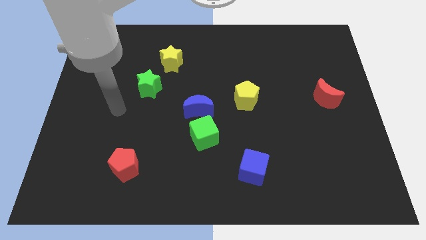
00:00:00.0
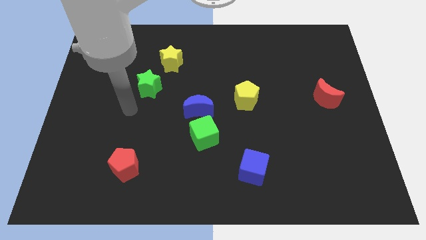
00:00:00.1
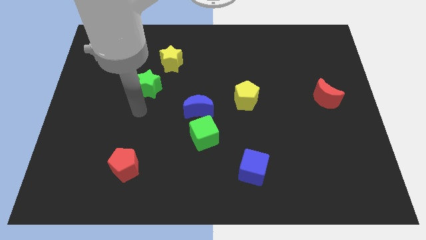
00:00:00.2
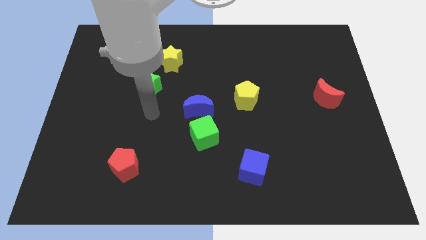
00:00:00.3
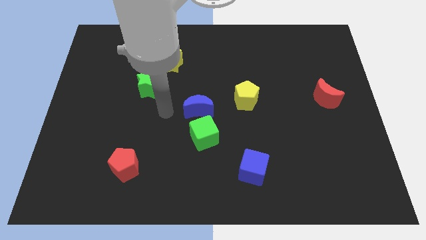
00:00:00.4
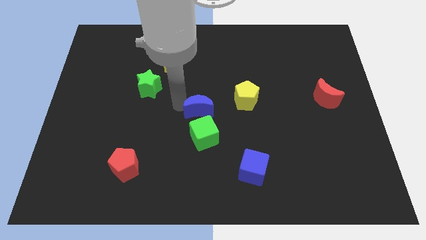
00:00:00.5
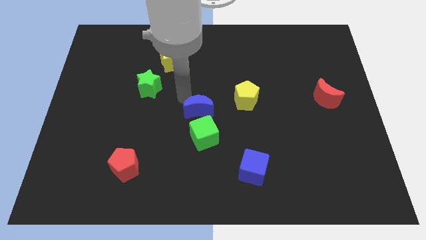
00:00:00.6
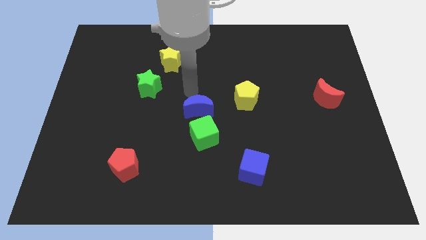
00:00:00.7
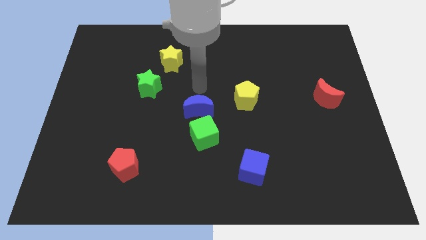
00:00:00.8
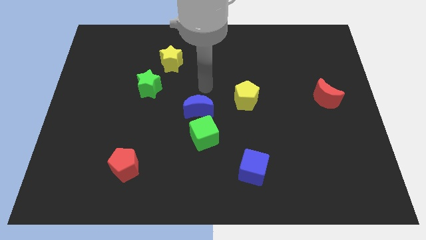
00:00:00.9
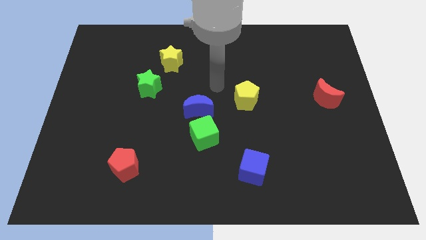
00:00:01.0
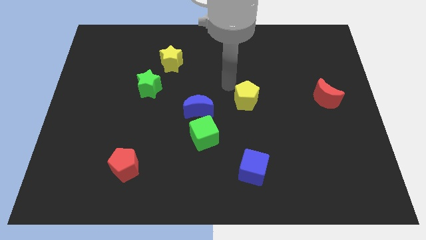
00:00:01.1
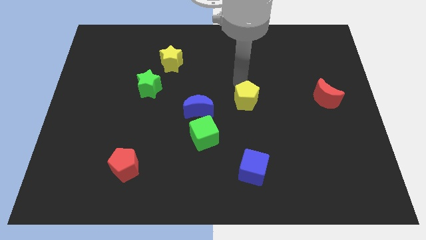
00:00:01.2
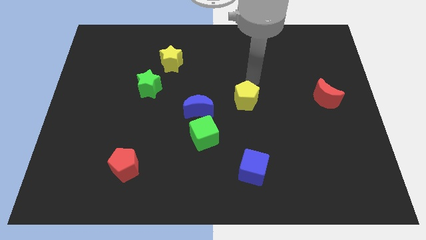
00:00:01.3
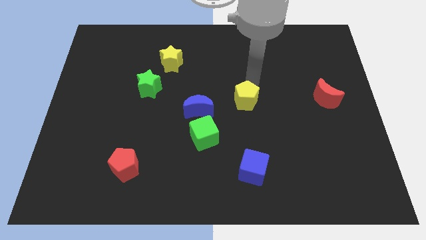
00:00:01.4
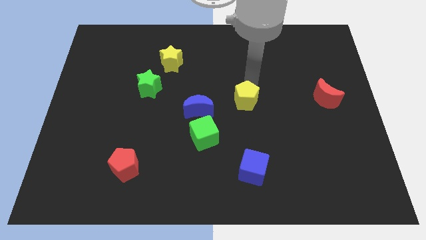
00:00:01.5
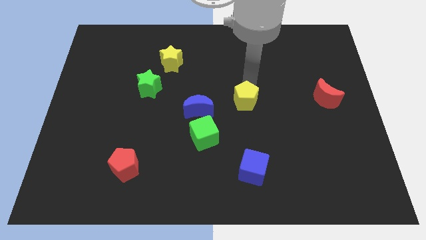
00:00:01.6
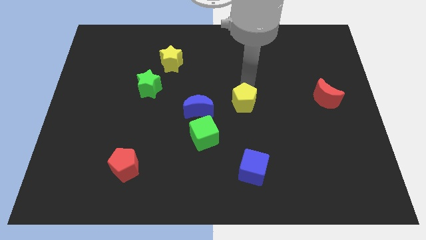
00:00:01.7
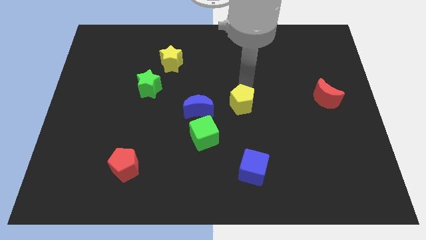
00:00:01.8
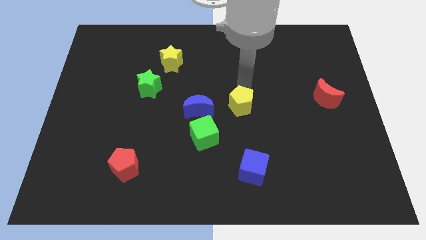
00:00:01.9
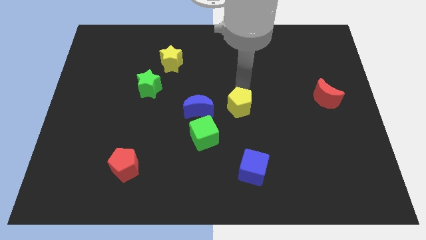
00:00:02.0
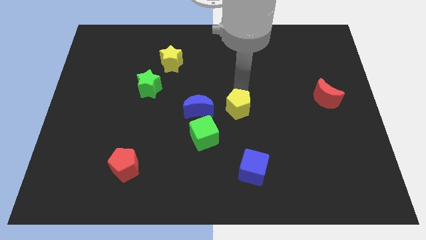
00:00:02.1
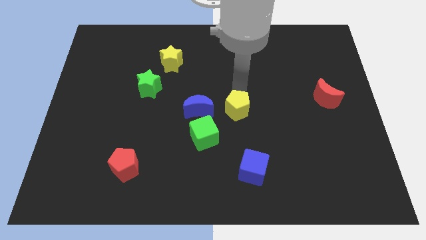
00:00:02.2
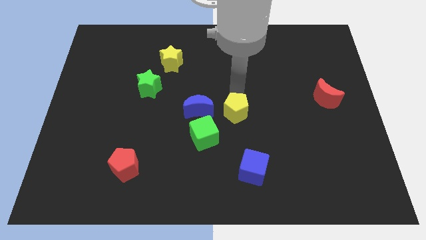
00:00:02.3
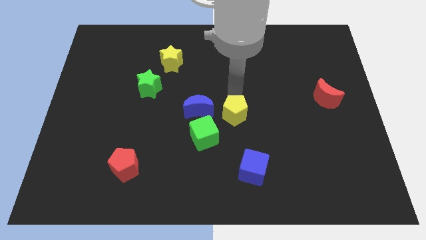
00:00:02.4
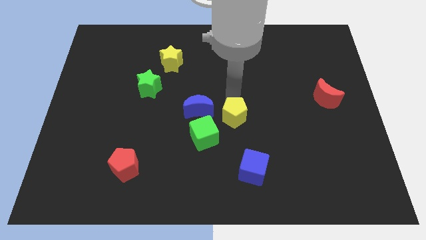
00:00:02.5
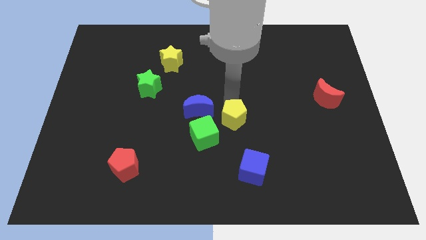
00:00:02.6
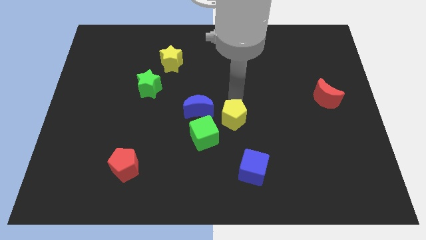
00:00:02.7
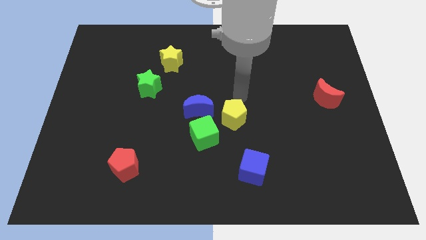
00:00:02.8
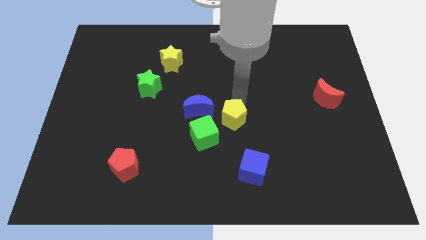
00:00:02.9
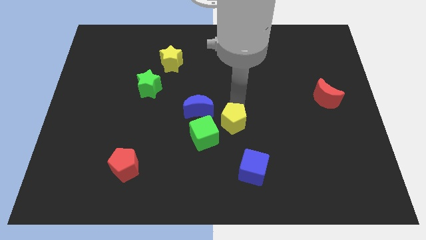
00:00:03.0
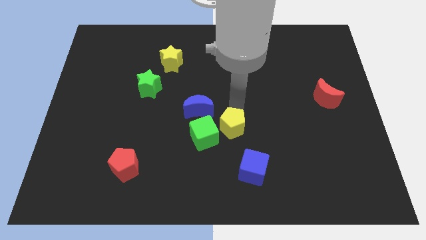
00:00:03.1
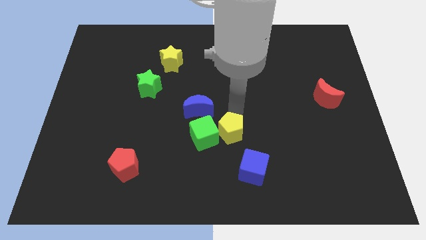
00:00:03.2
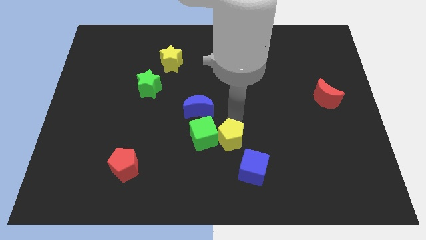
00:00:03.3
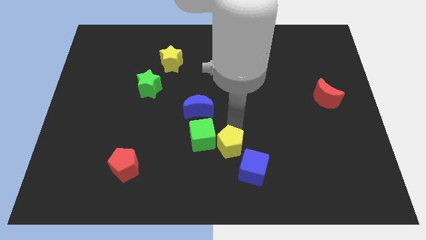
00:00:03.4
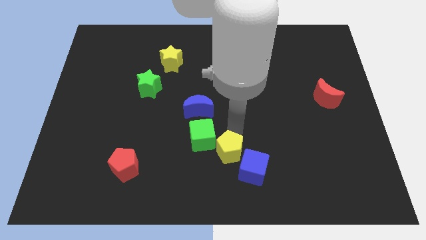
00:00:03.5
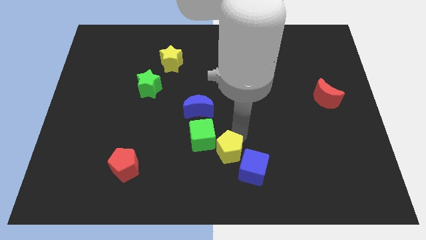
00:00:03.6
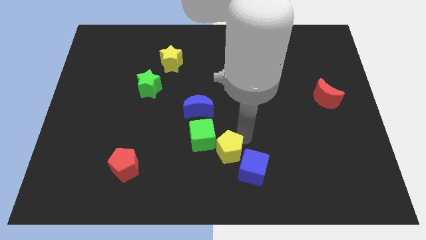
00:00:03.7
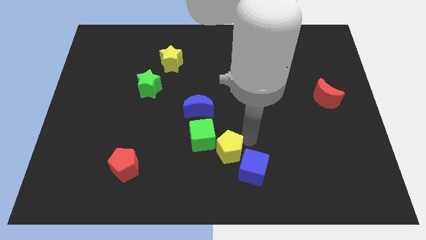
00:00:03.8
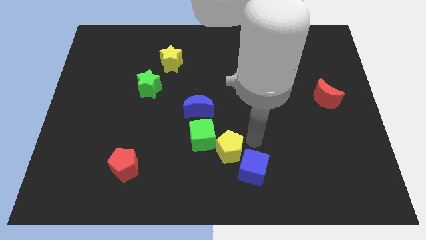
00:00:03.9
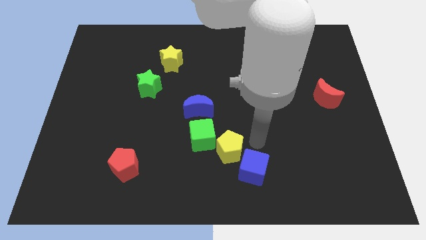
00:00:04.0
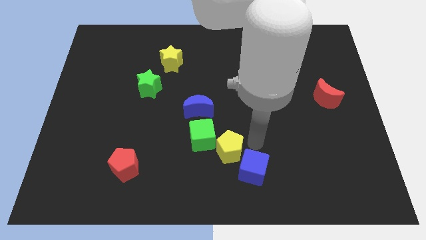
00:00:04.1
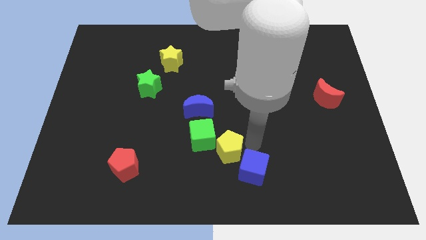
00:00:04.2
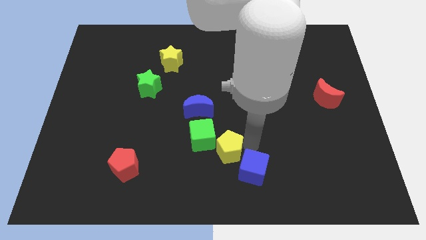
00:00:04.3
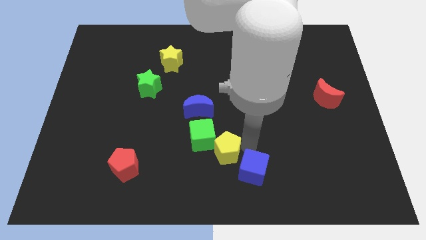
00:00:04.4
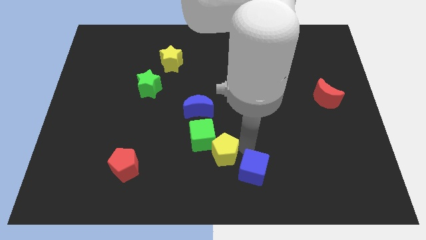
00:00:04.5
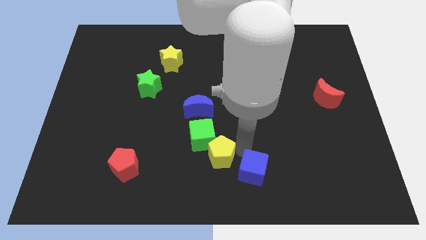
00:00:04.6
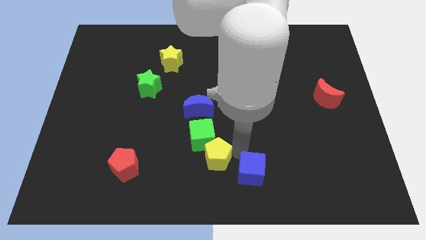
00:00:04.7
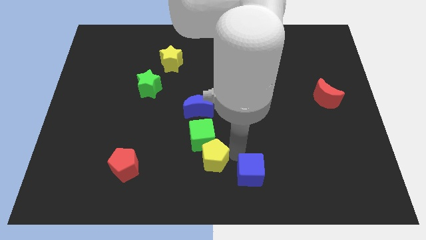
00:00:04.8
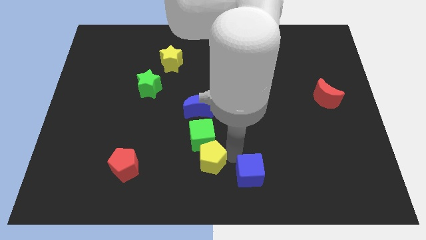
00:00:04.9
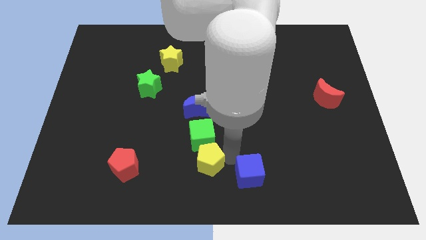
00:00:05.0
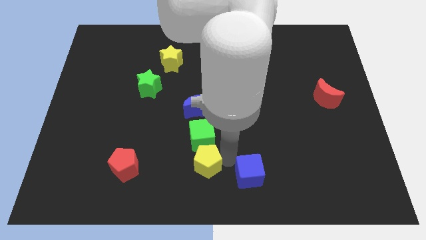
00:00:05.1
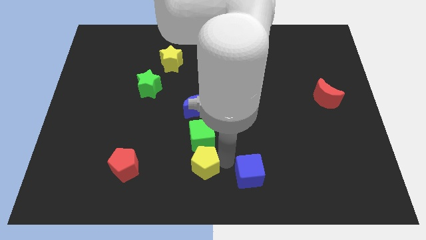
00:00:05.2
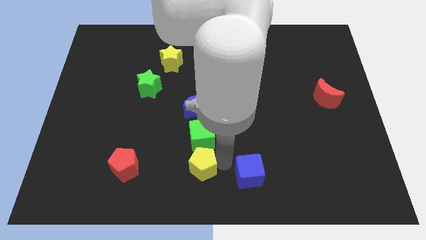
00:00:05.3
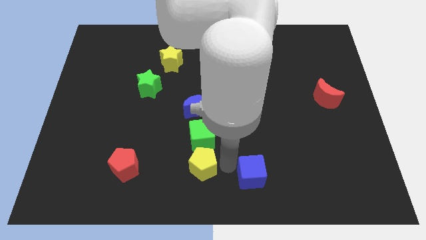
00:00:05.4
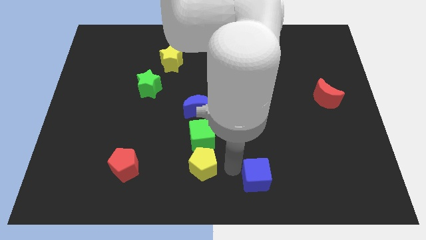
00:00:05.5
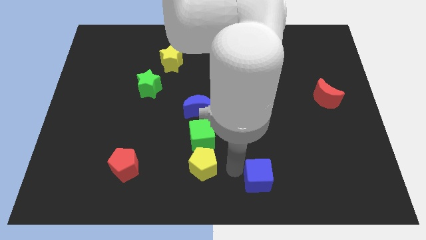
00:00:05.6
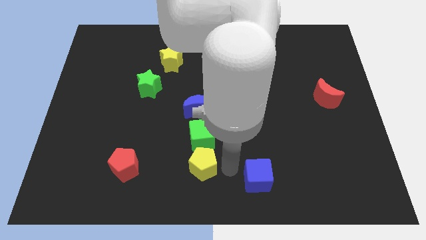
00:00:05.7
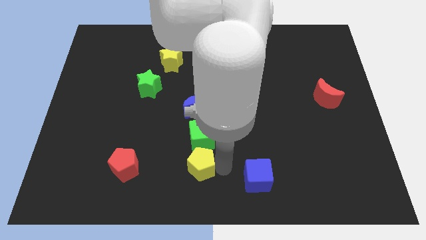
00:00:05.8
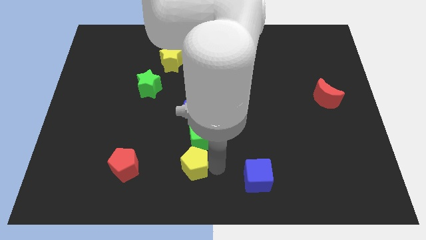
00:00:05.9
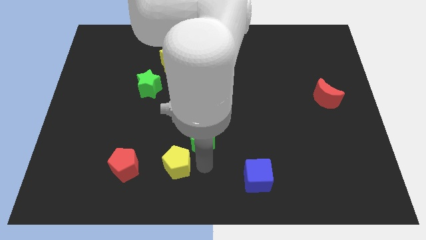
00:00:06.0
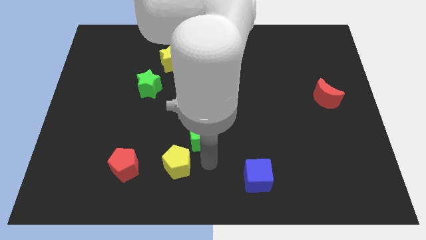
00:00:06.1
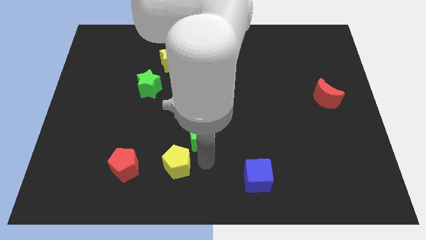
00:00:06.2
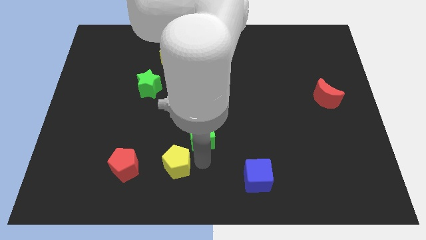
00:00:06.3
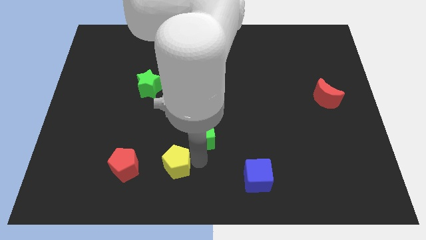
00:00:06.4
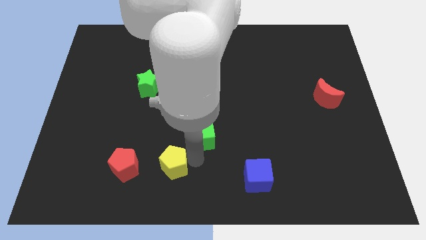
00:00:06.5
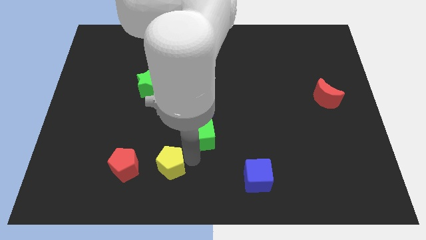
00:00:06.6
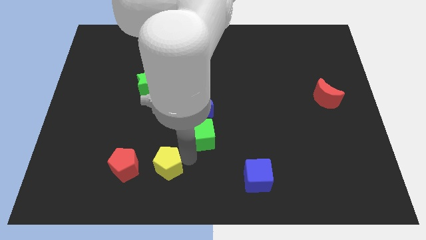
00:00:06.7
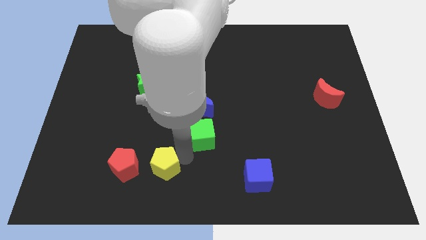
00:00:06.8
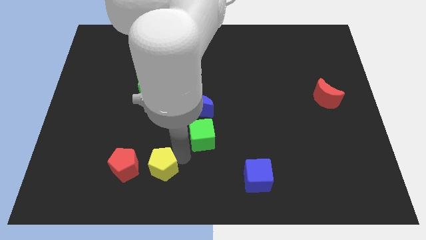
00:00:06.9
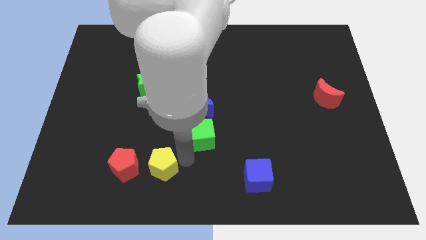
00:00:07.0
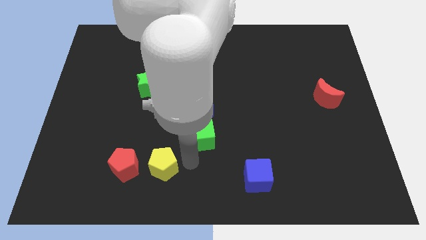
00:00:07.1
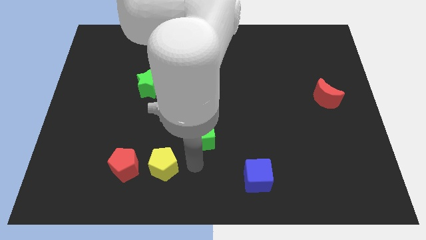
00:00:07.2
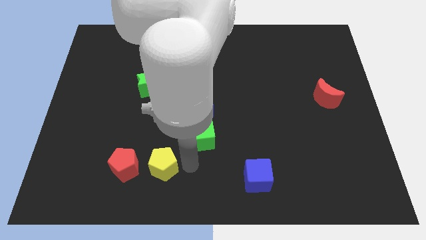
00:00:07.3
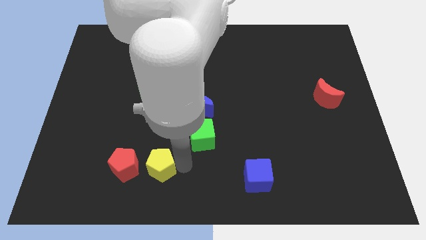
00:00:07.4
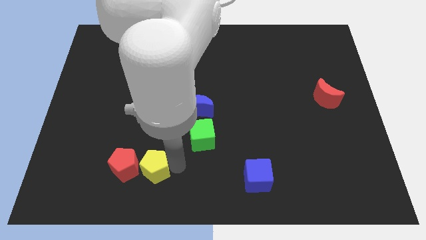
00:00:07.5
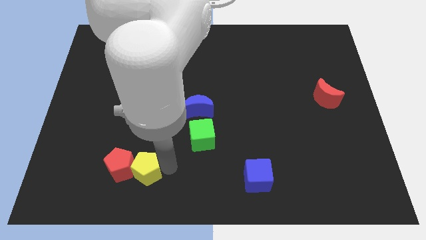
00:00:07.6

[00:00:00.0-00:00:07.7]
move the yellow pentagon towards the red pentagon

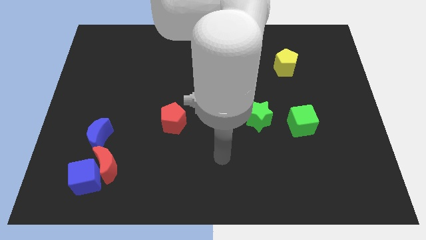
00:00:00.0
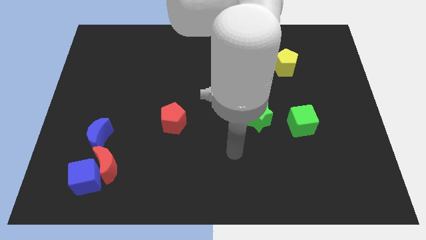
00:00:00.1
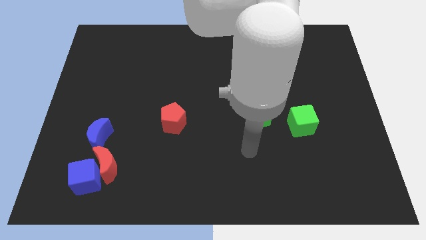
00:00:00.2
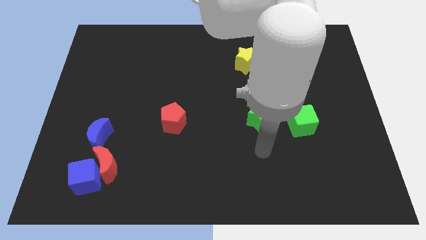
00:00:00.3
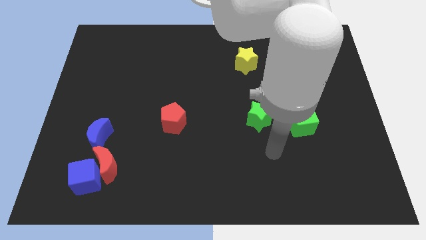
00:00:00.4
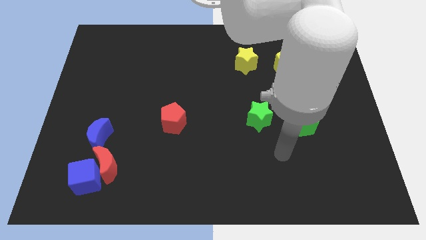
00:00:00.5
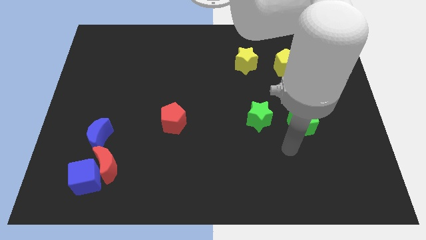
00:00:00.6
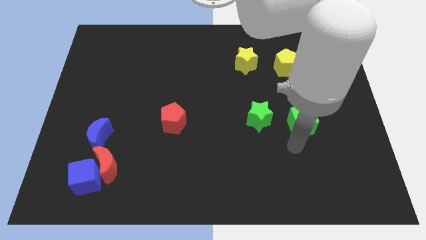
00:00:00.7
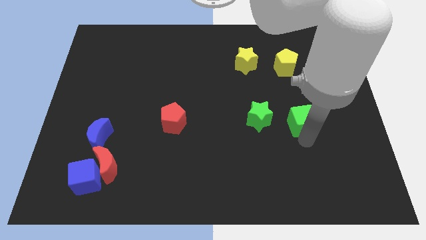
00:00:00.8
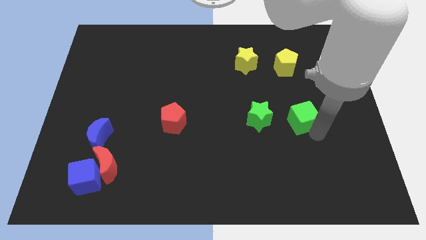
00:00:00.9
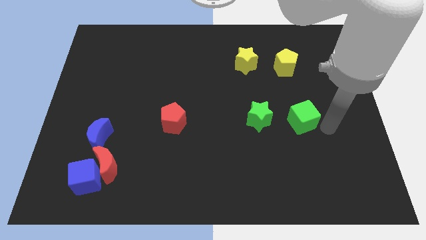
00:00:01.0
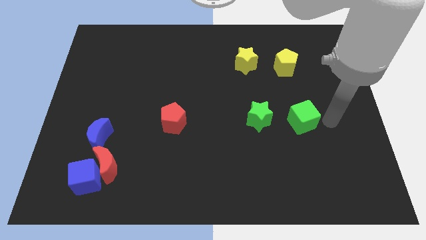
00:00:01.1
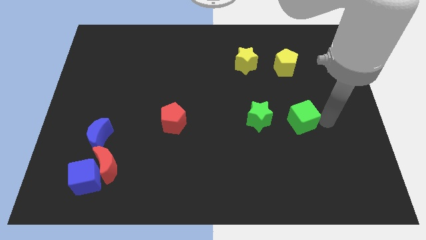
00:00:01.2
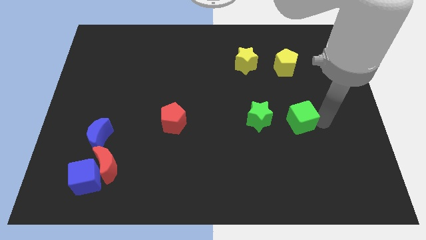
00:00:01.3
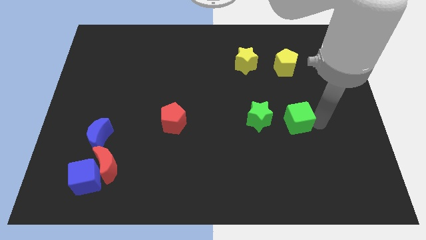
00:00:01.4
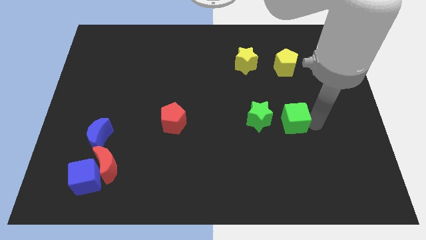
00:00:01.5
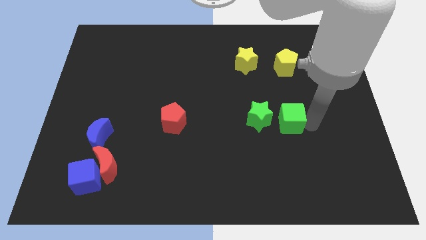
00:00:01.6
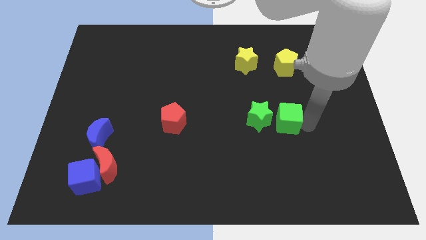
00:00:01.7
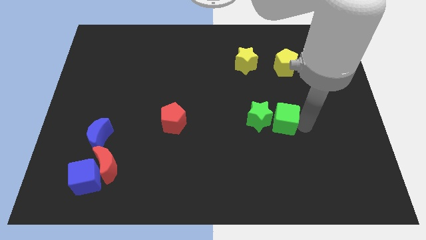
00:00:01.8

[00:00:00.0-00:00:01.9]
push the green cube towards the green star
